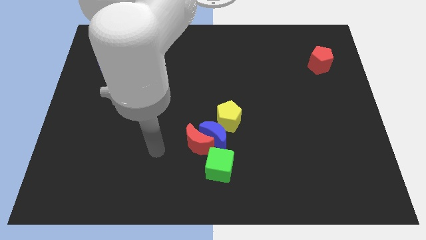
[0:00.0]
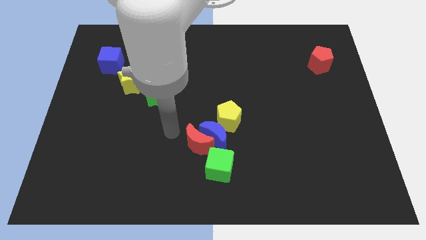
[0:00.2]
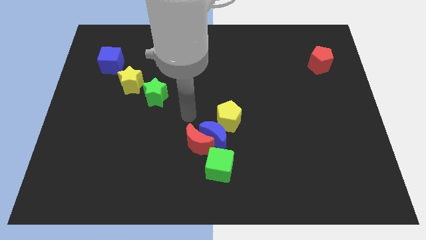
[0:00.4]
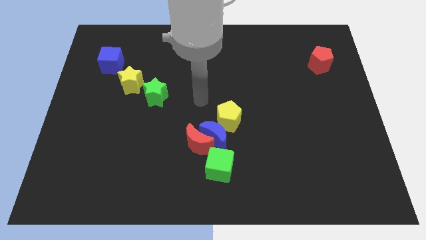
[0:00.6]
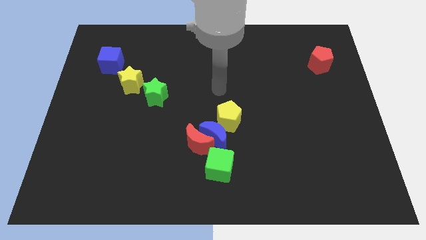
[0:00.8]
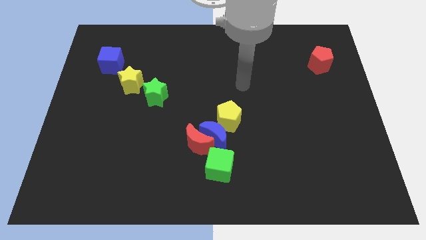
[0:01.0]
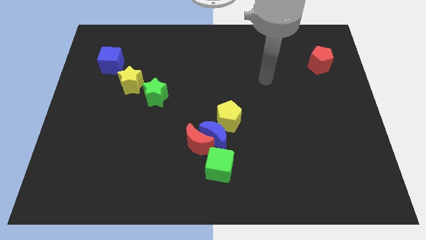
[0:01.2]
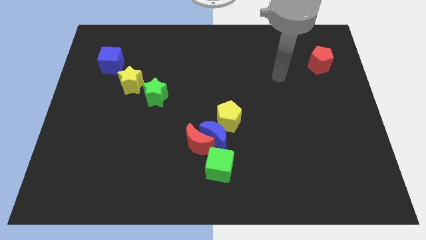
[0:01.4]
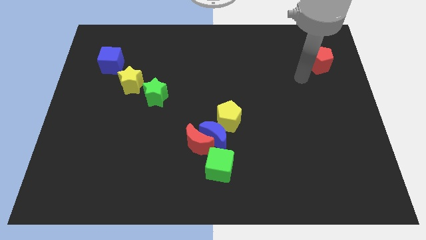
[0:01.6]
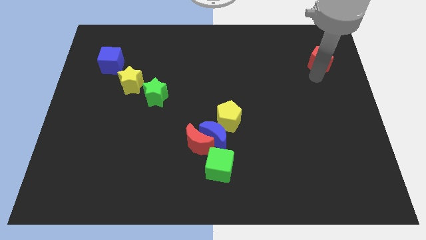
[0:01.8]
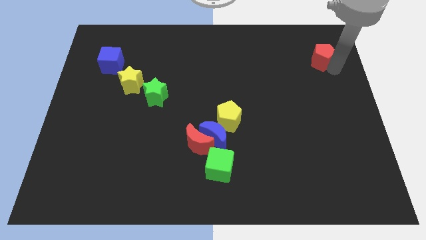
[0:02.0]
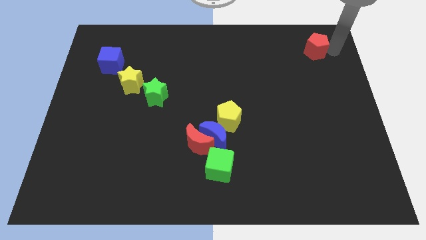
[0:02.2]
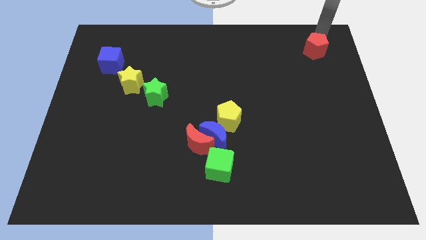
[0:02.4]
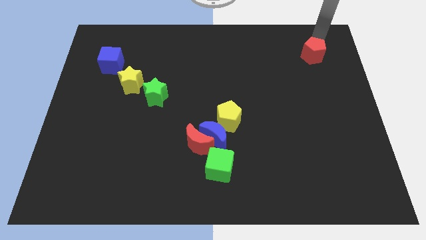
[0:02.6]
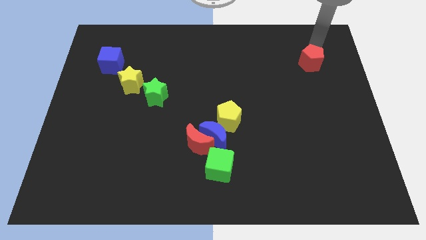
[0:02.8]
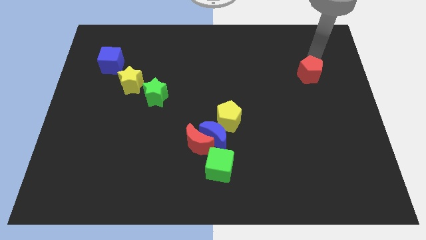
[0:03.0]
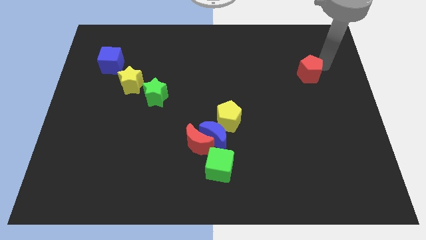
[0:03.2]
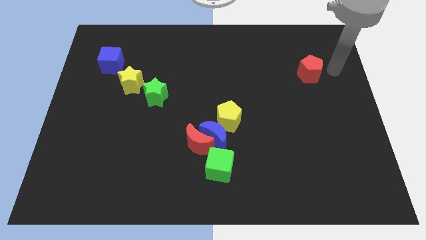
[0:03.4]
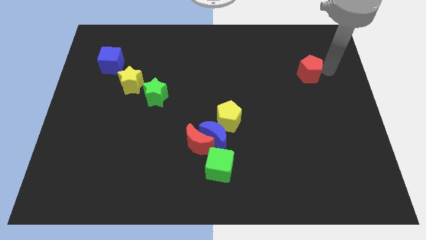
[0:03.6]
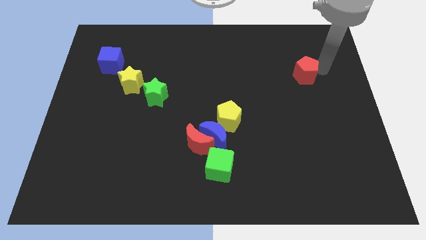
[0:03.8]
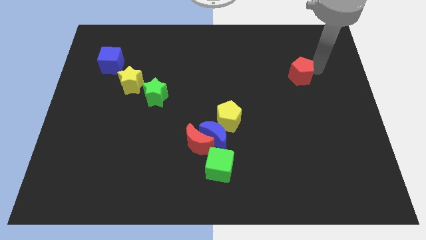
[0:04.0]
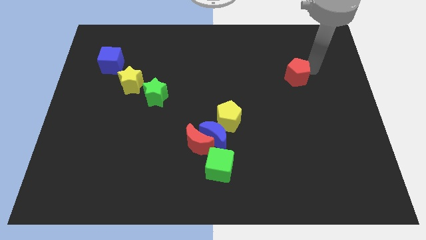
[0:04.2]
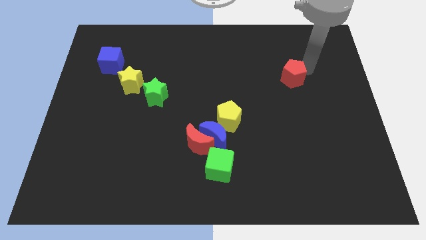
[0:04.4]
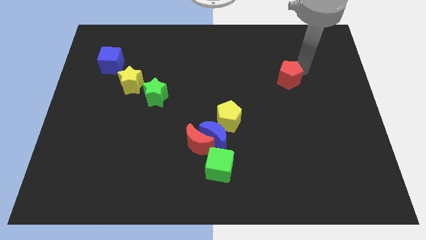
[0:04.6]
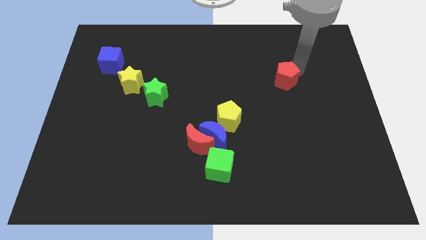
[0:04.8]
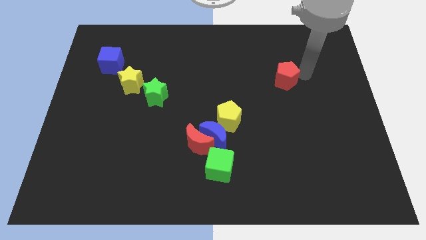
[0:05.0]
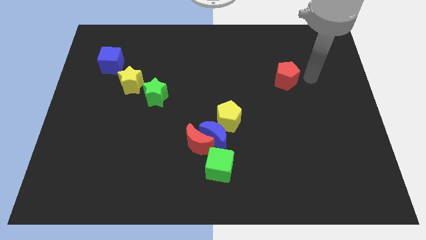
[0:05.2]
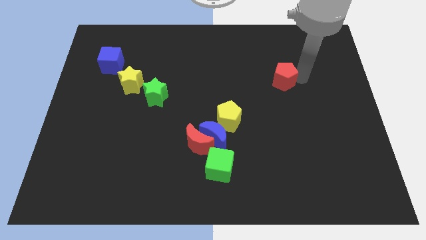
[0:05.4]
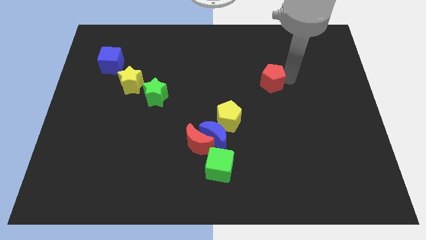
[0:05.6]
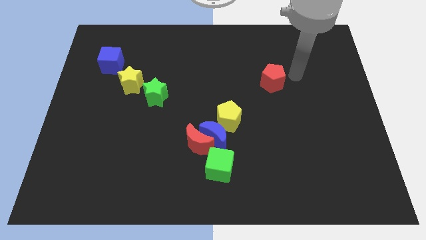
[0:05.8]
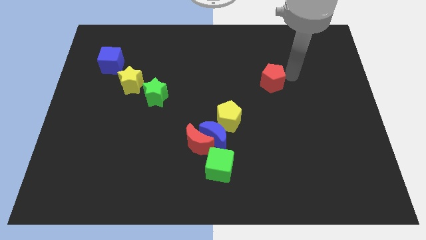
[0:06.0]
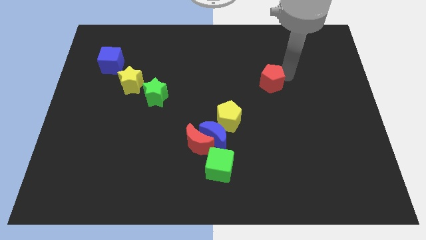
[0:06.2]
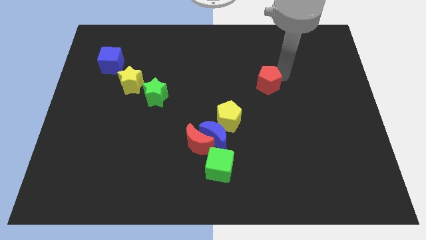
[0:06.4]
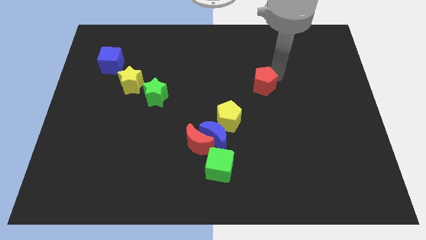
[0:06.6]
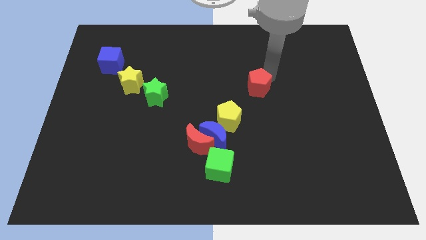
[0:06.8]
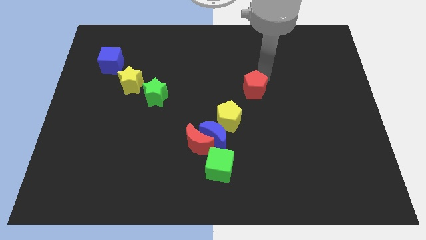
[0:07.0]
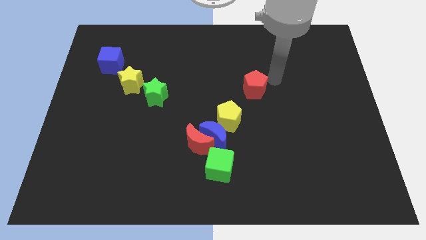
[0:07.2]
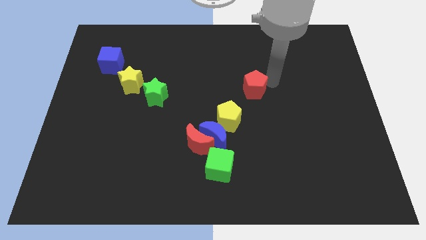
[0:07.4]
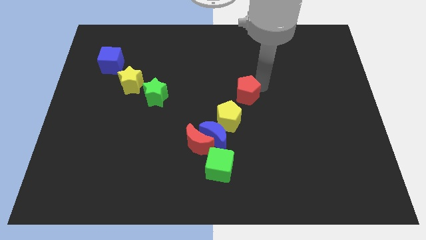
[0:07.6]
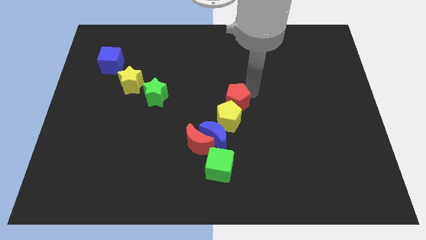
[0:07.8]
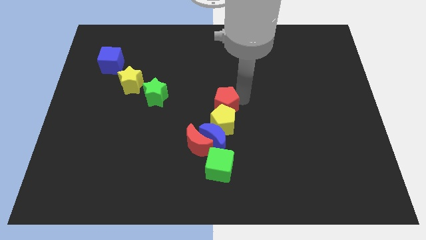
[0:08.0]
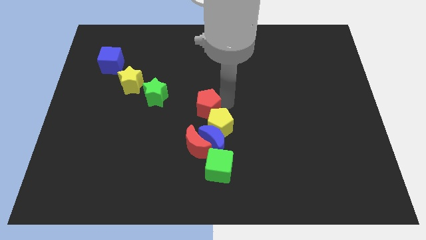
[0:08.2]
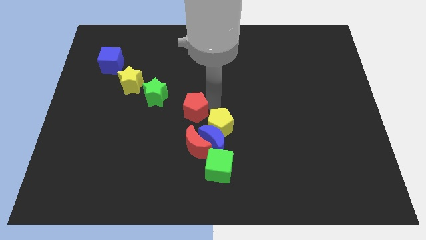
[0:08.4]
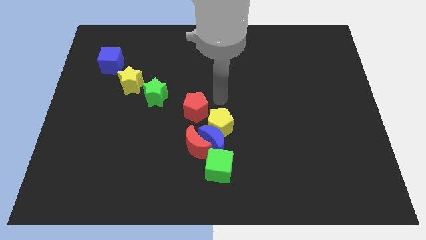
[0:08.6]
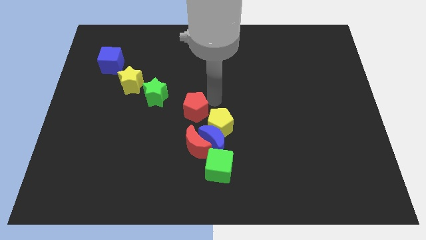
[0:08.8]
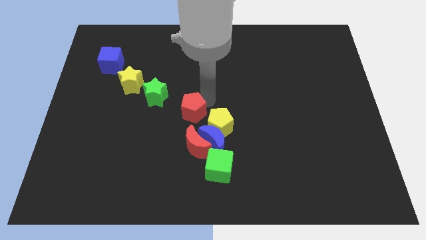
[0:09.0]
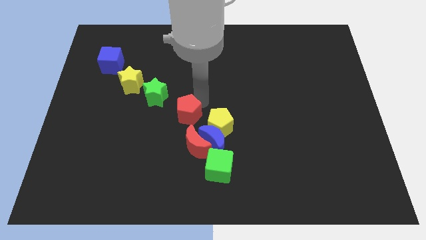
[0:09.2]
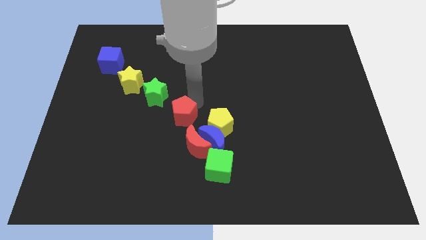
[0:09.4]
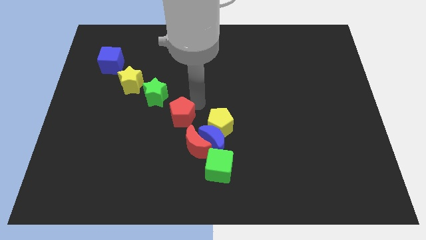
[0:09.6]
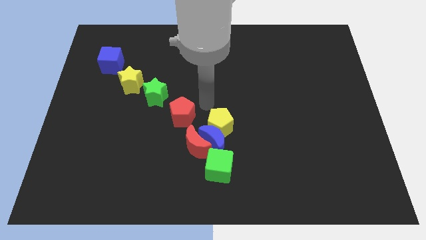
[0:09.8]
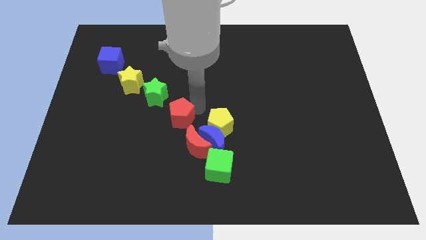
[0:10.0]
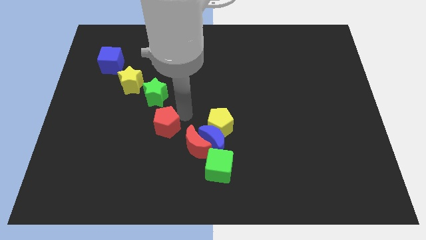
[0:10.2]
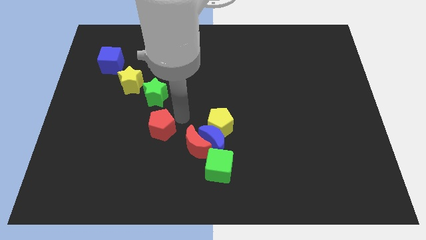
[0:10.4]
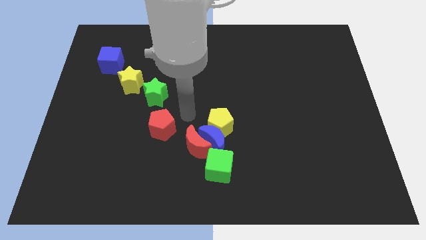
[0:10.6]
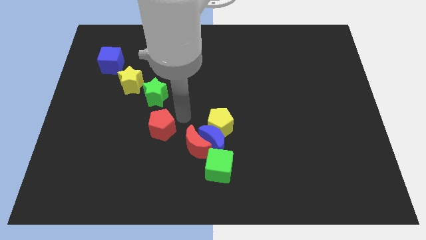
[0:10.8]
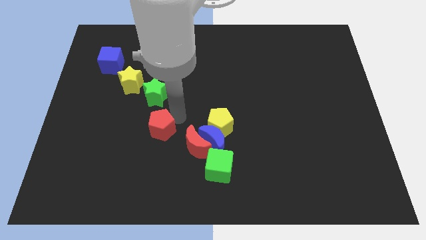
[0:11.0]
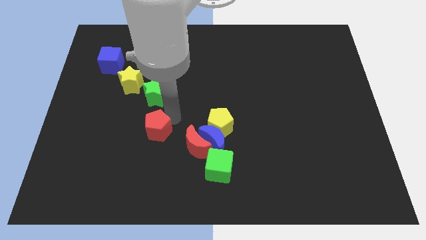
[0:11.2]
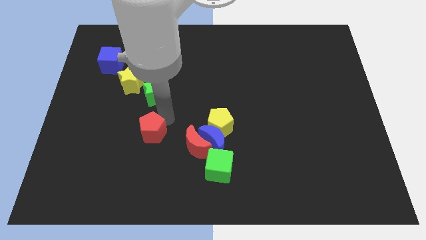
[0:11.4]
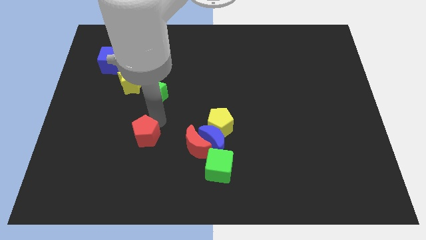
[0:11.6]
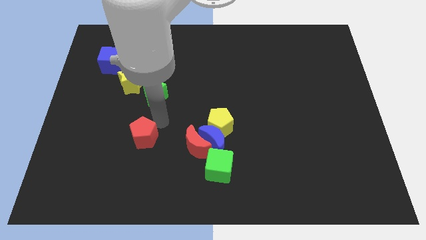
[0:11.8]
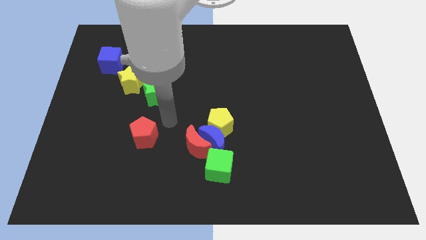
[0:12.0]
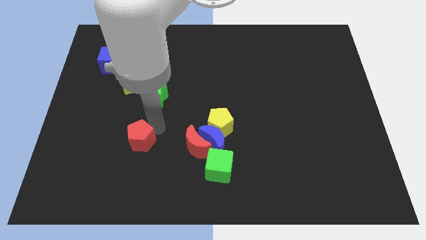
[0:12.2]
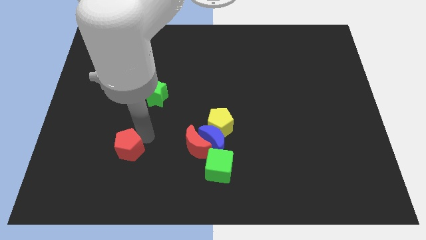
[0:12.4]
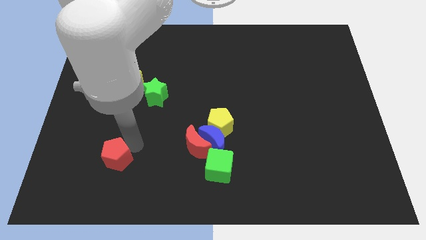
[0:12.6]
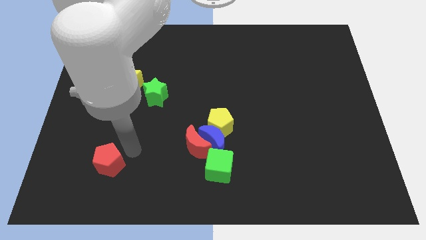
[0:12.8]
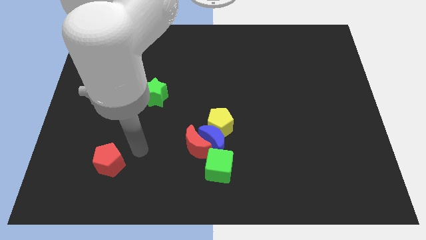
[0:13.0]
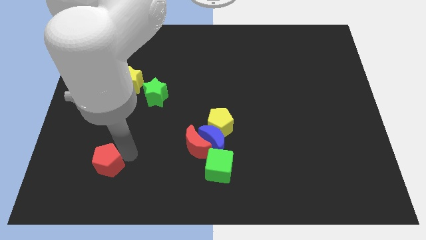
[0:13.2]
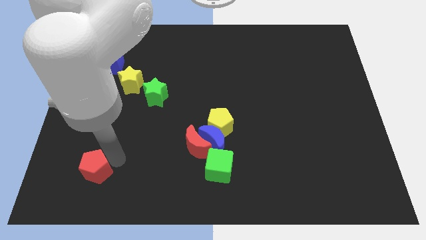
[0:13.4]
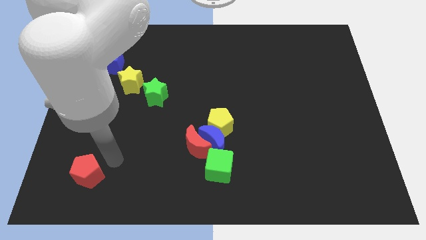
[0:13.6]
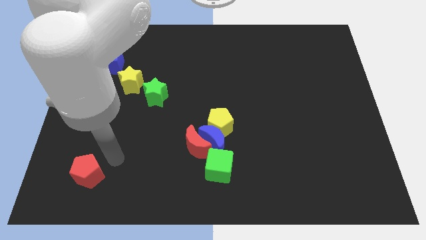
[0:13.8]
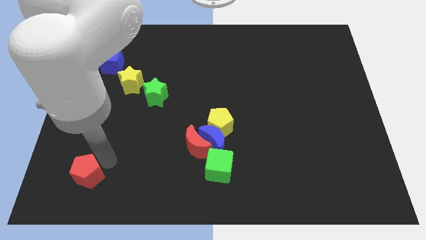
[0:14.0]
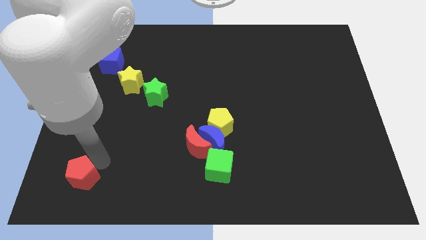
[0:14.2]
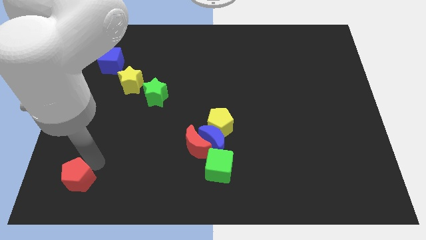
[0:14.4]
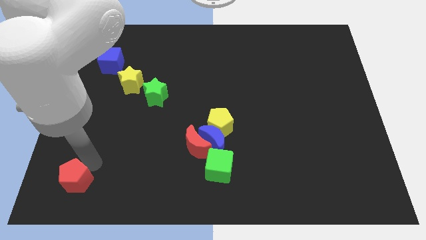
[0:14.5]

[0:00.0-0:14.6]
put the red pentagon to the lower left corner
